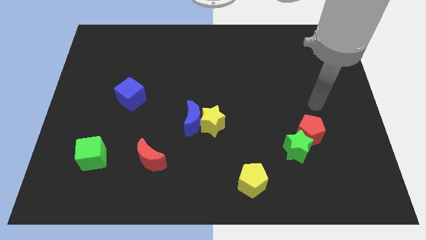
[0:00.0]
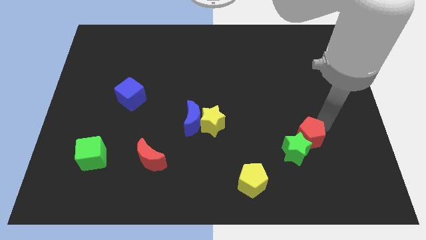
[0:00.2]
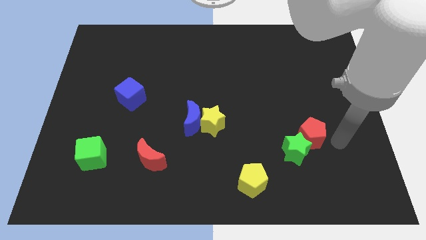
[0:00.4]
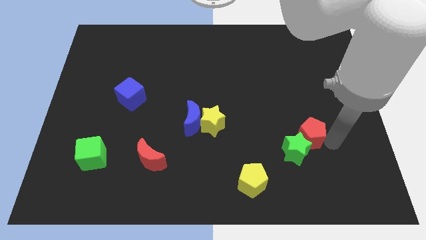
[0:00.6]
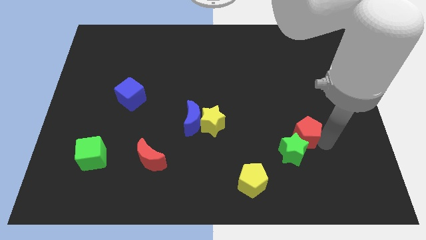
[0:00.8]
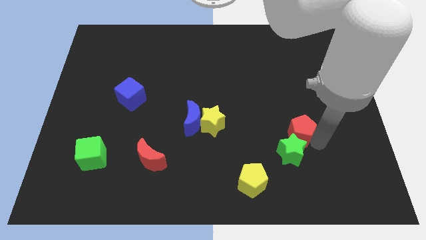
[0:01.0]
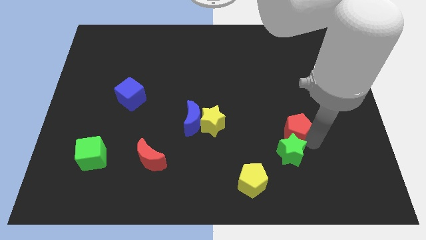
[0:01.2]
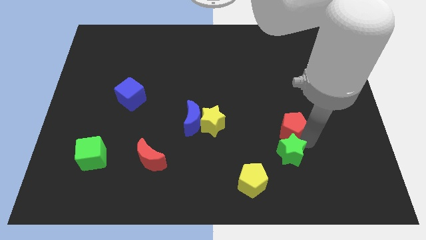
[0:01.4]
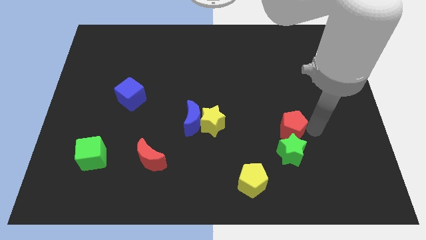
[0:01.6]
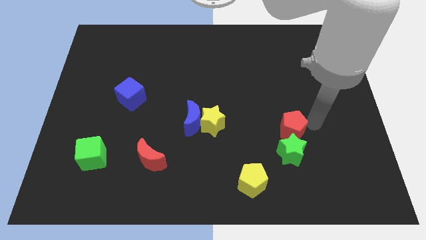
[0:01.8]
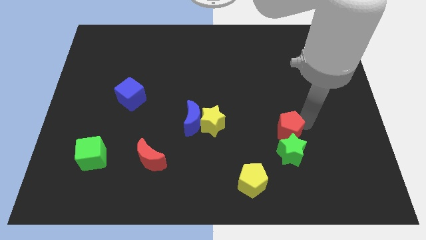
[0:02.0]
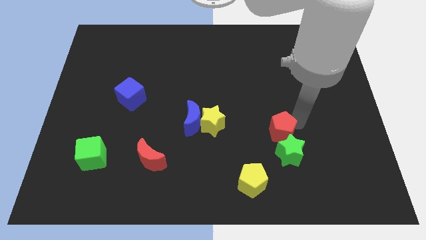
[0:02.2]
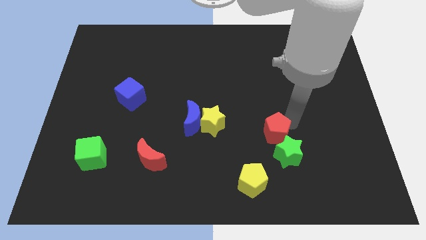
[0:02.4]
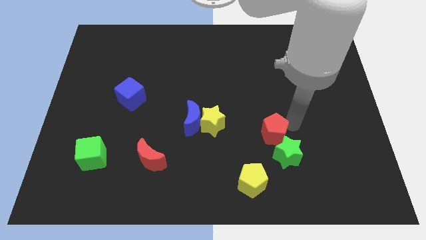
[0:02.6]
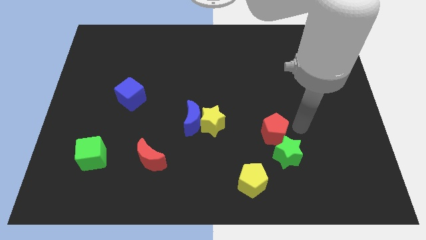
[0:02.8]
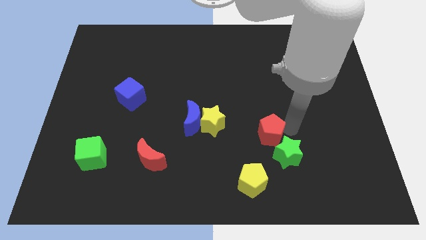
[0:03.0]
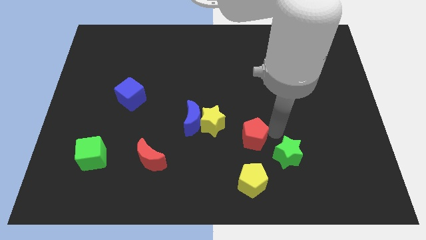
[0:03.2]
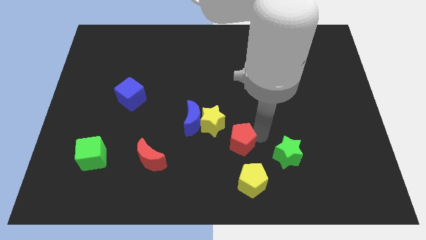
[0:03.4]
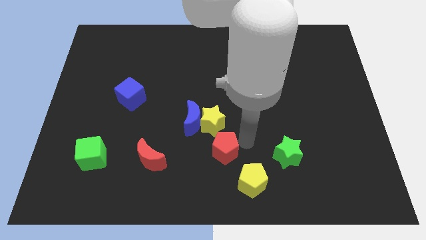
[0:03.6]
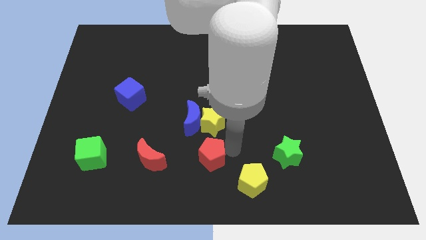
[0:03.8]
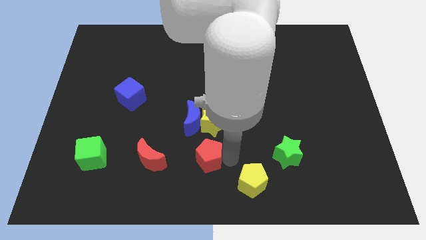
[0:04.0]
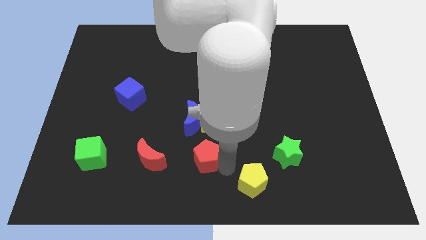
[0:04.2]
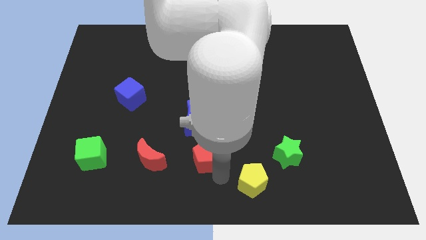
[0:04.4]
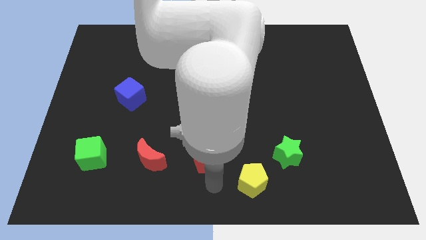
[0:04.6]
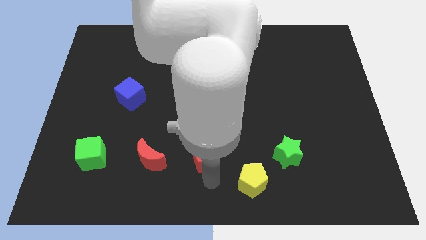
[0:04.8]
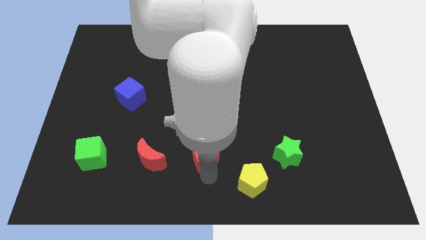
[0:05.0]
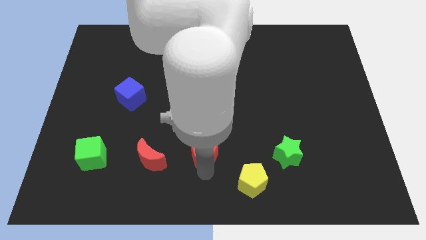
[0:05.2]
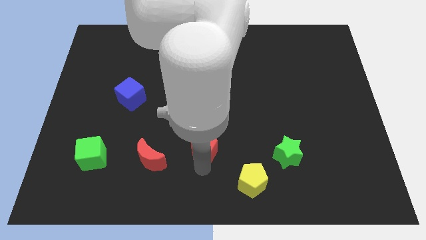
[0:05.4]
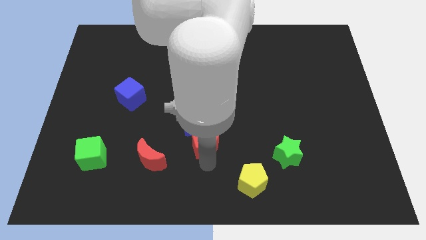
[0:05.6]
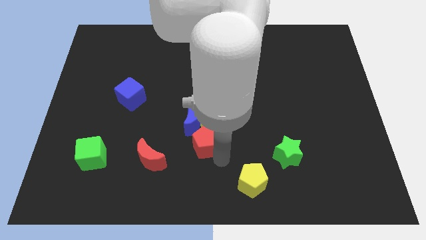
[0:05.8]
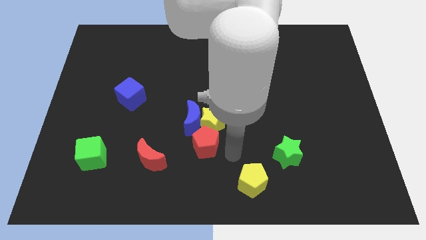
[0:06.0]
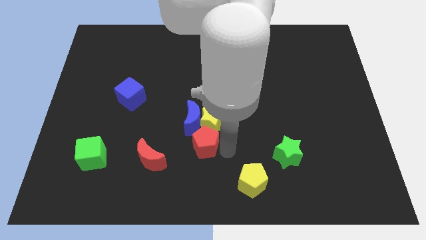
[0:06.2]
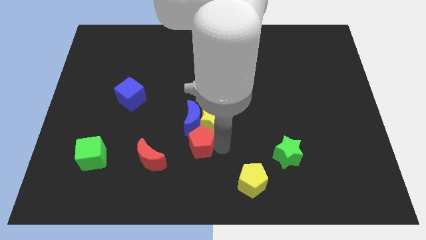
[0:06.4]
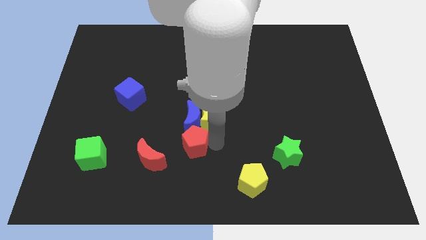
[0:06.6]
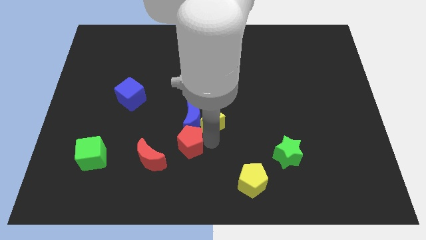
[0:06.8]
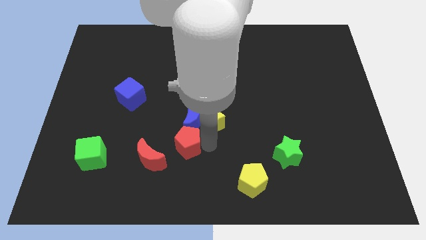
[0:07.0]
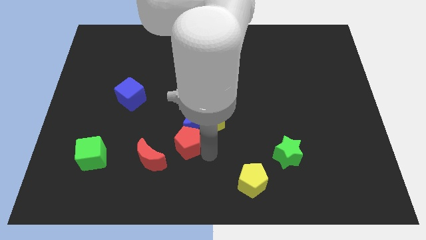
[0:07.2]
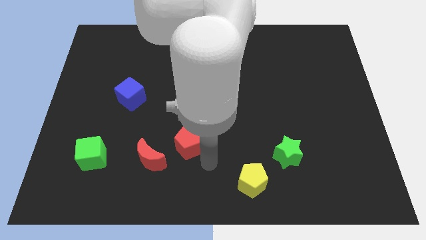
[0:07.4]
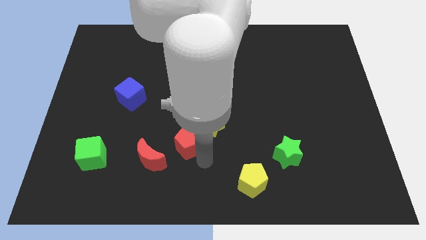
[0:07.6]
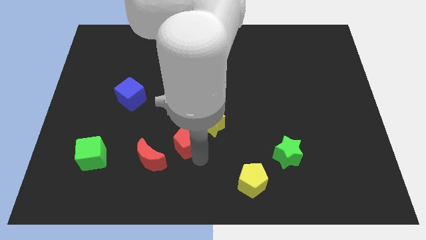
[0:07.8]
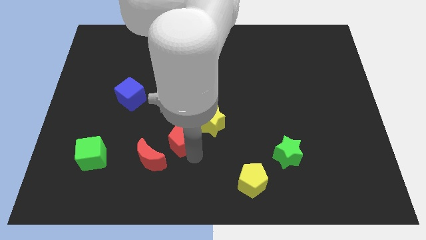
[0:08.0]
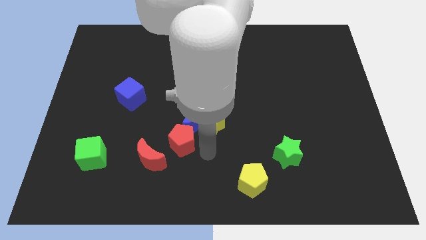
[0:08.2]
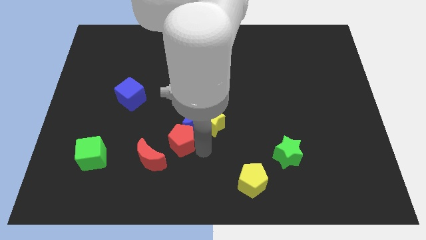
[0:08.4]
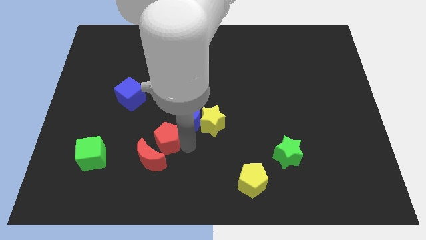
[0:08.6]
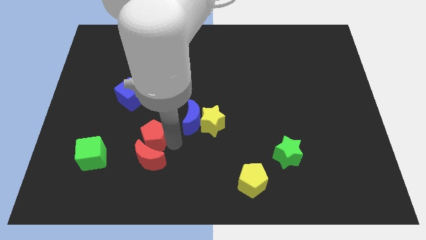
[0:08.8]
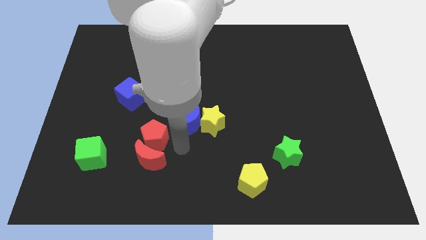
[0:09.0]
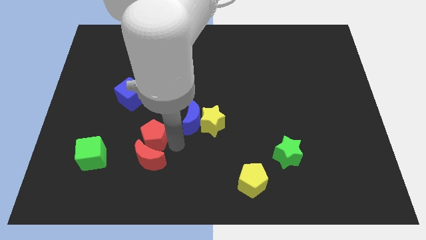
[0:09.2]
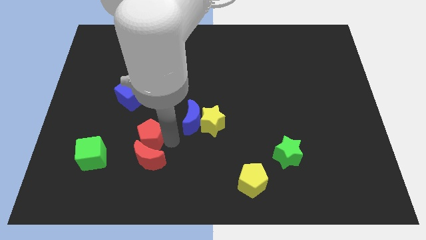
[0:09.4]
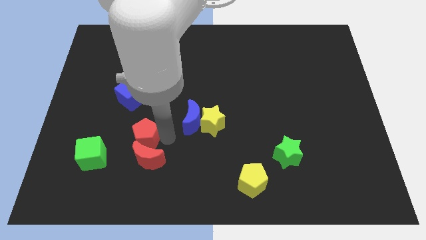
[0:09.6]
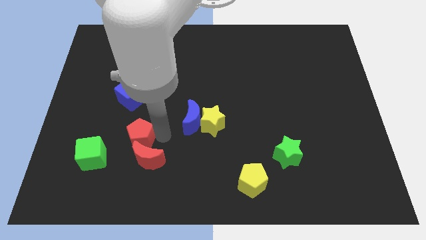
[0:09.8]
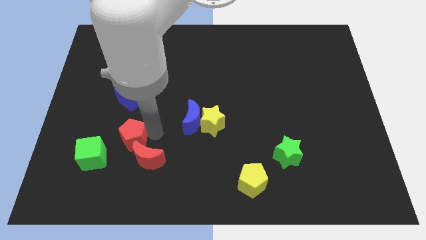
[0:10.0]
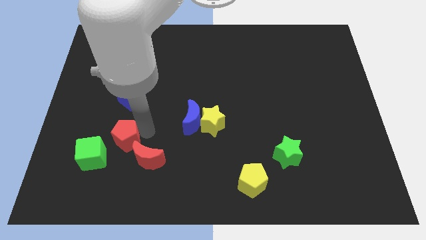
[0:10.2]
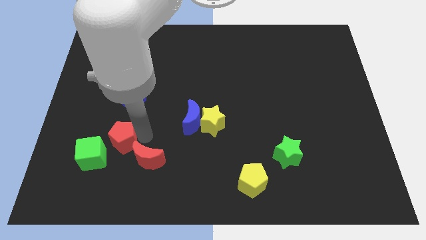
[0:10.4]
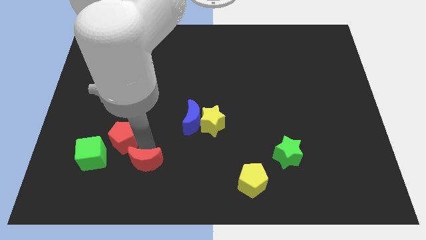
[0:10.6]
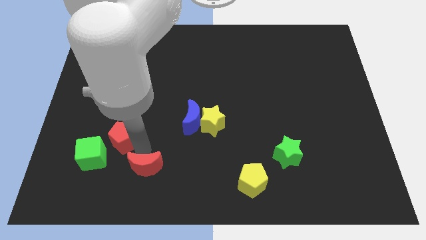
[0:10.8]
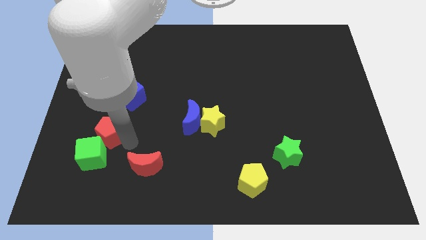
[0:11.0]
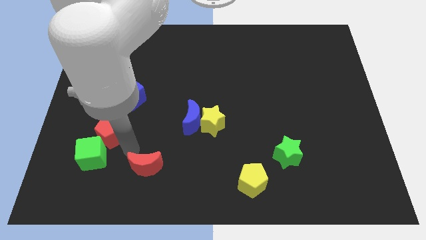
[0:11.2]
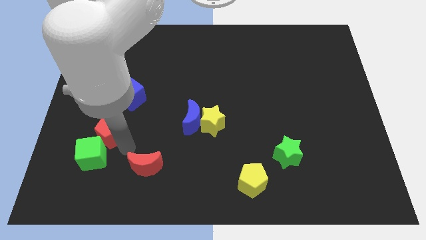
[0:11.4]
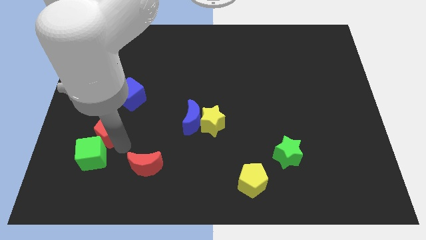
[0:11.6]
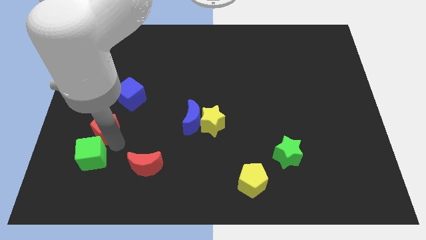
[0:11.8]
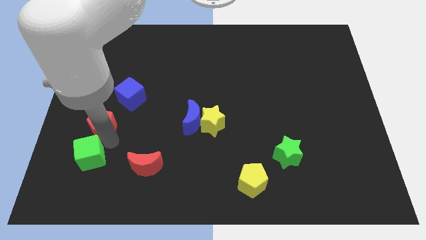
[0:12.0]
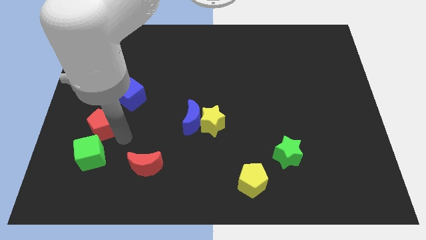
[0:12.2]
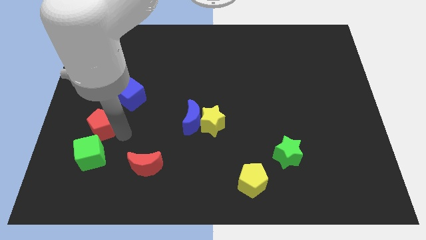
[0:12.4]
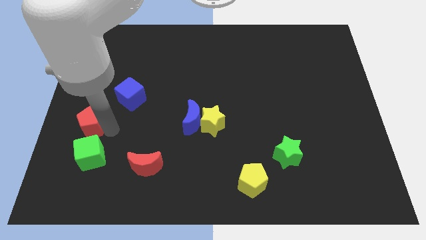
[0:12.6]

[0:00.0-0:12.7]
slide the red pentagon to the left side of the board
